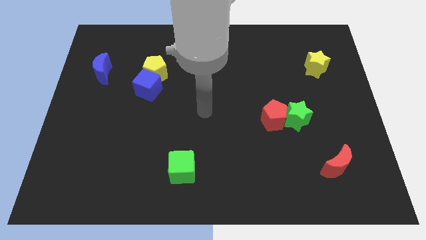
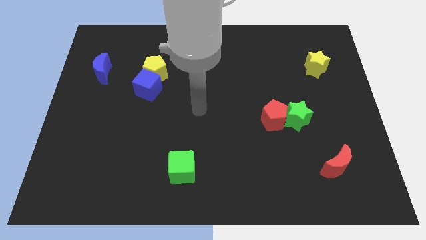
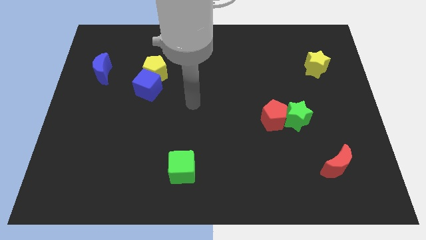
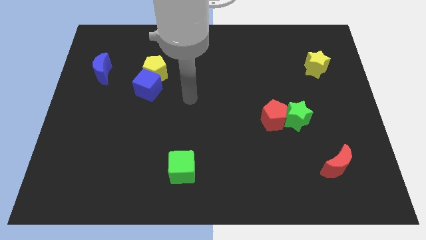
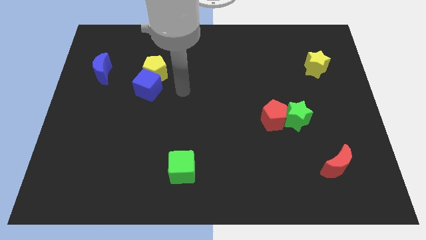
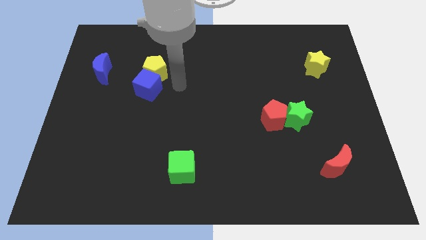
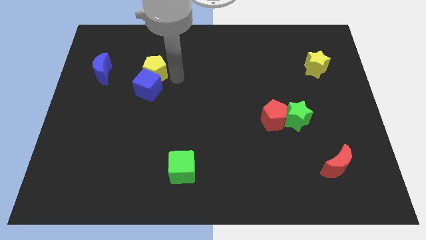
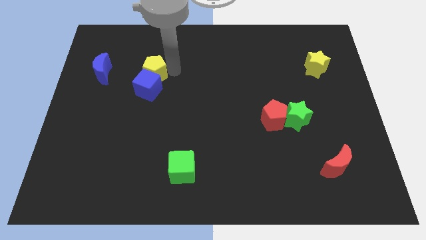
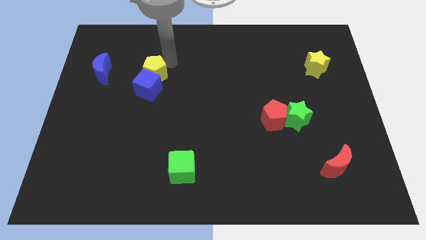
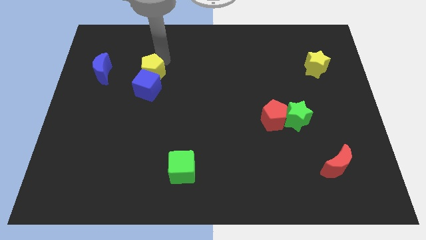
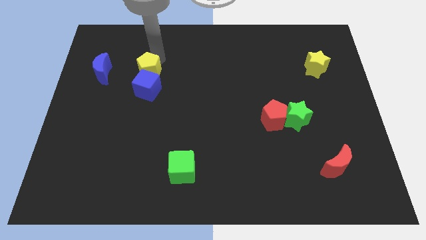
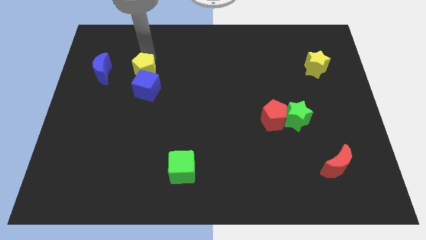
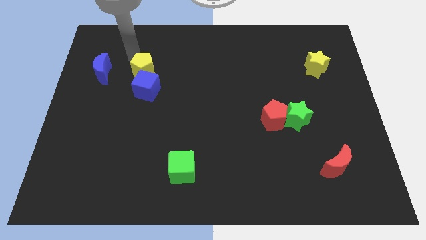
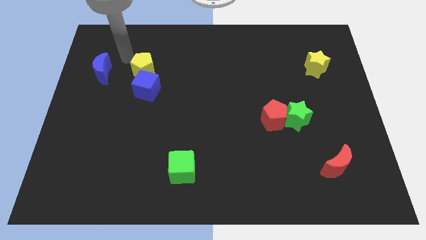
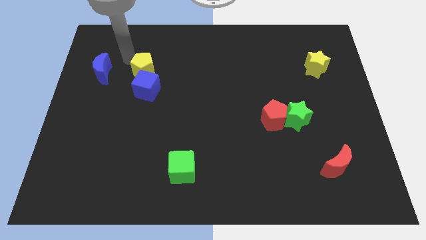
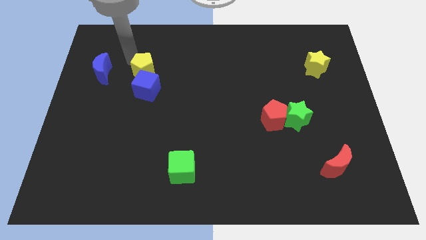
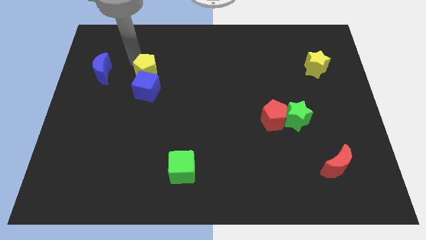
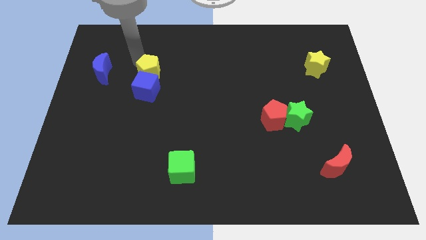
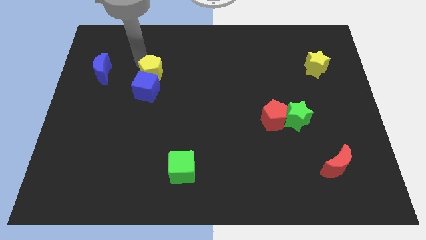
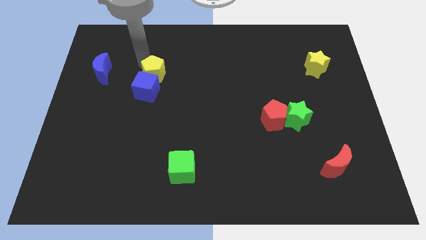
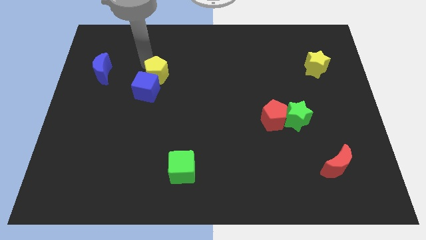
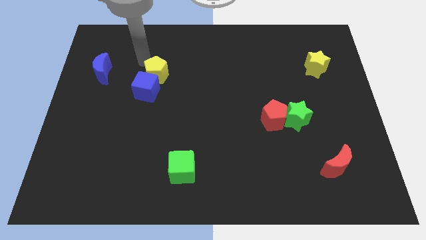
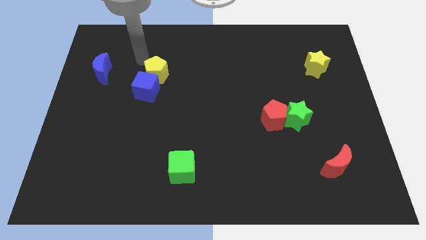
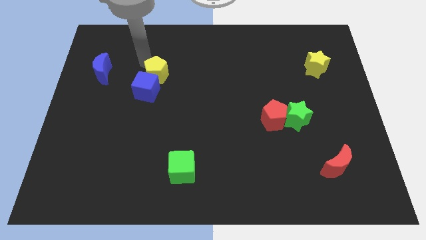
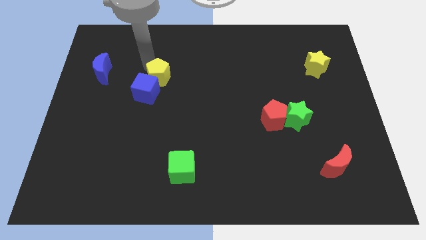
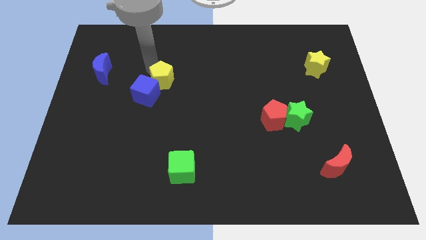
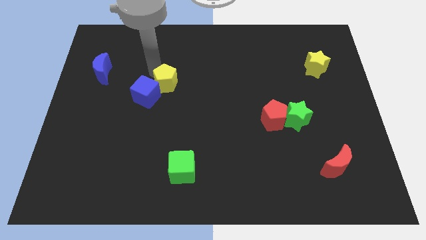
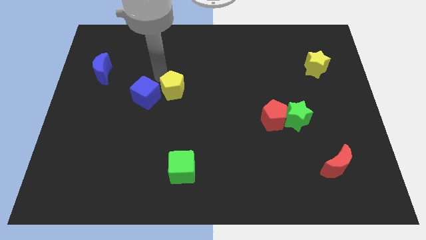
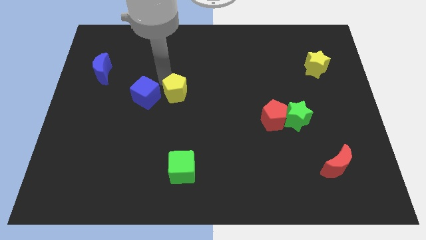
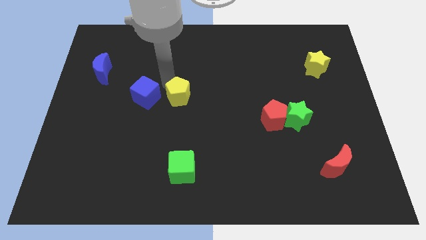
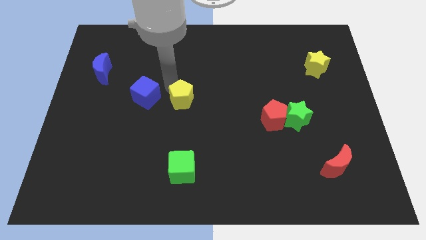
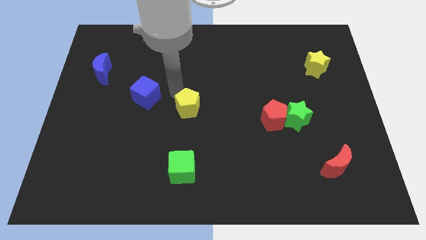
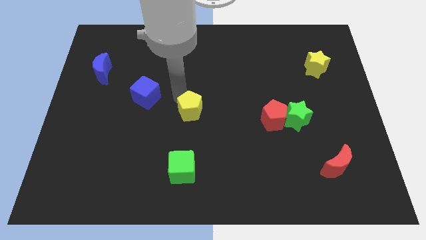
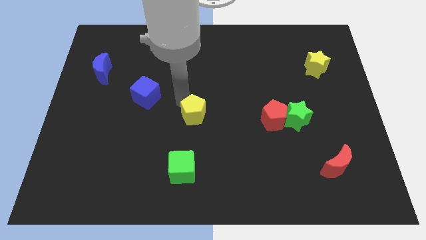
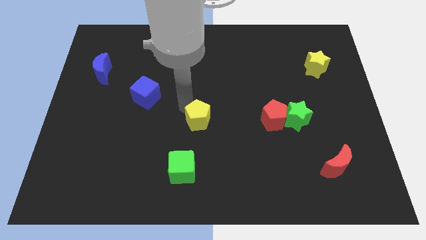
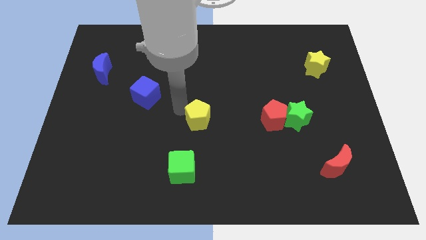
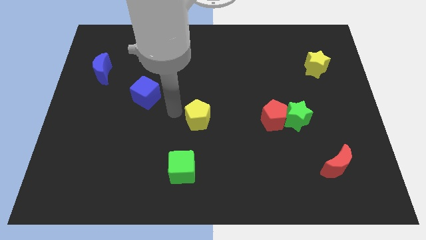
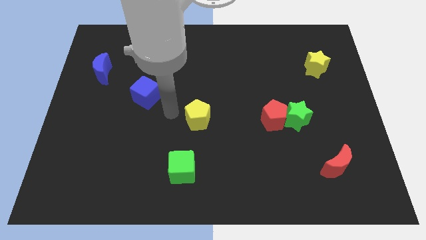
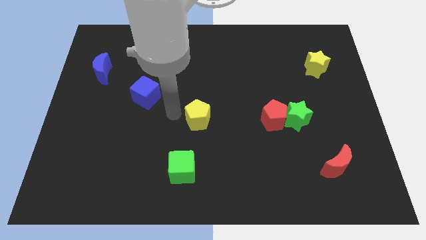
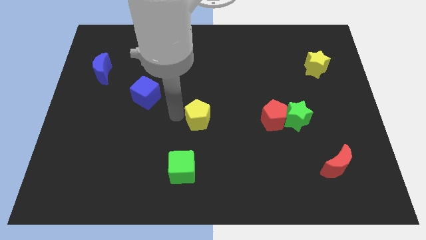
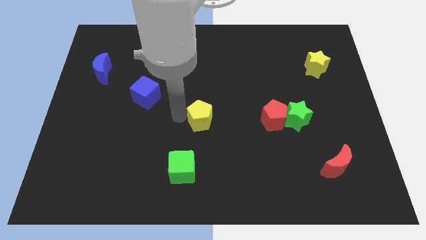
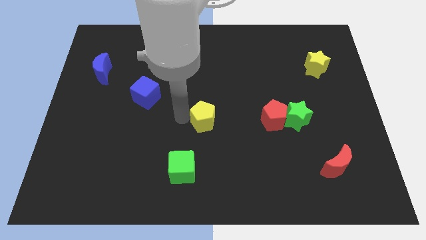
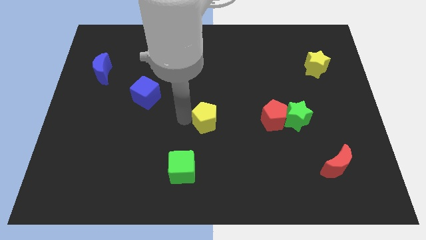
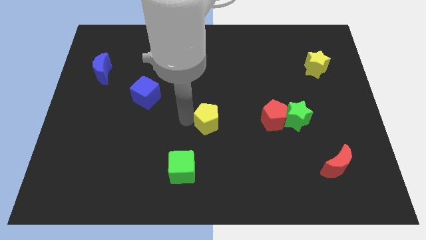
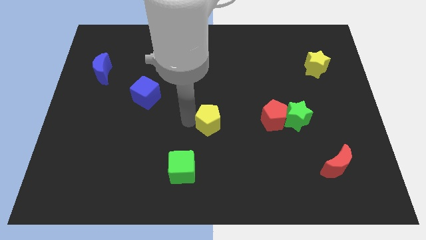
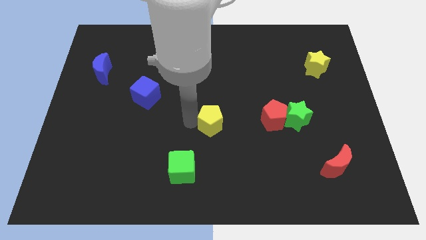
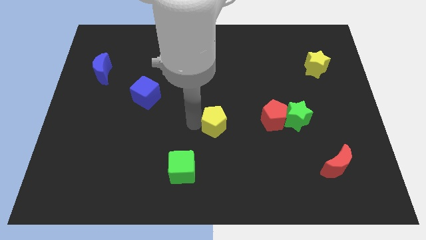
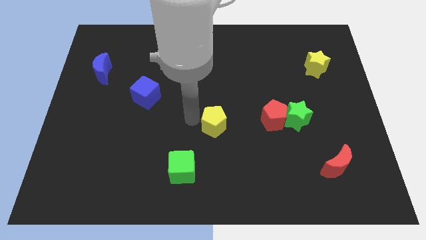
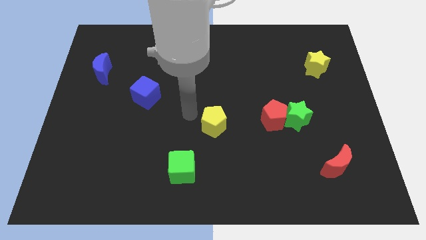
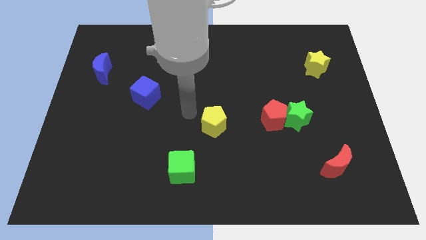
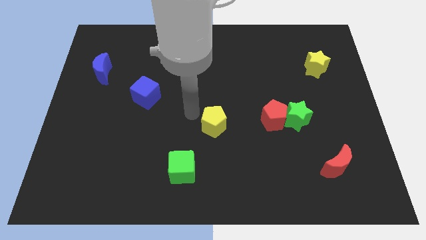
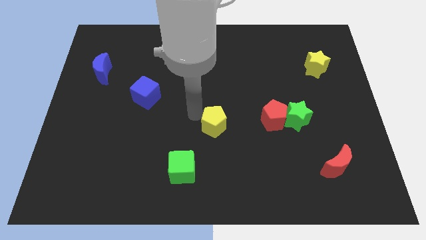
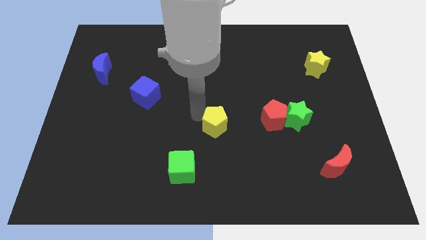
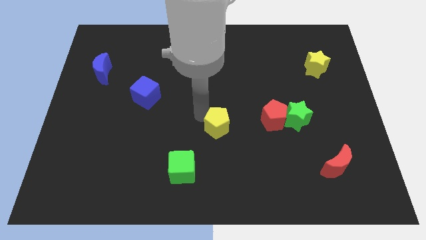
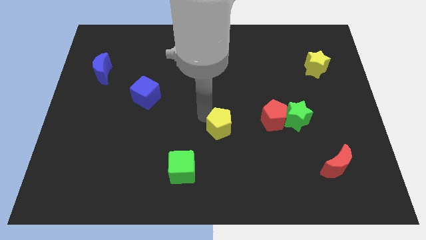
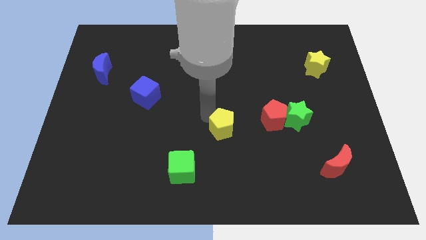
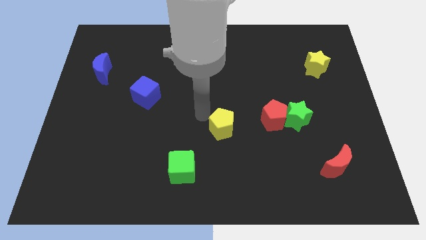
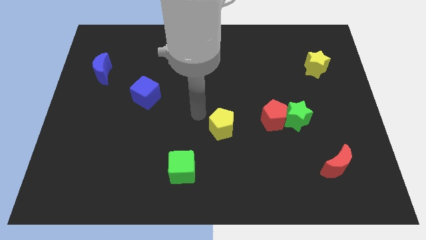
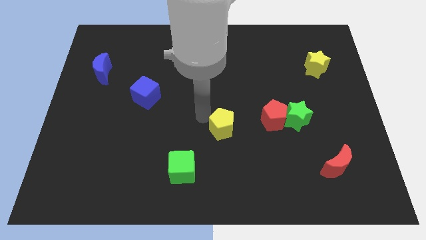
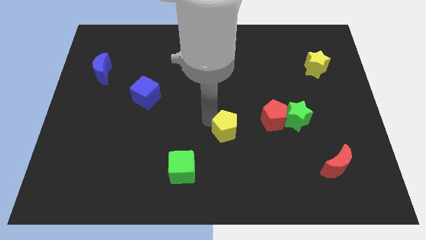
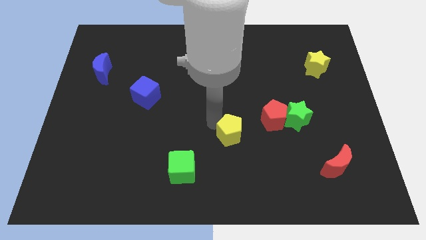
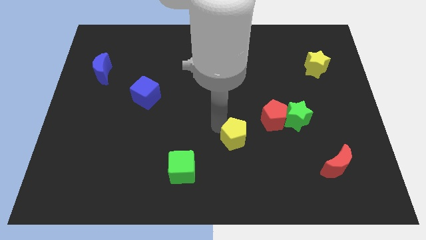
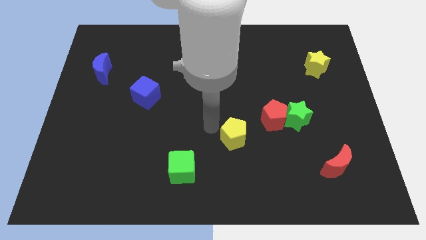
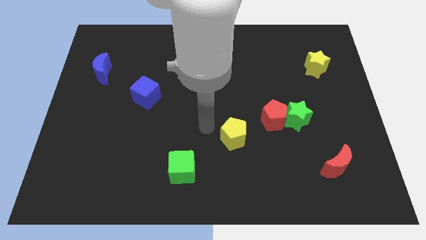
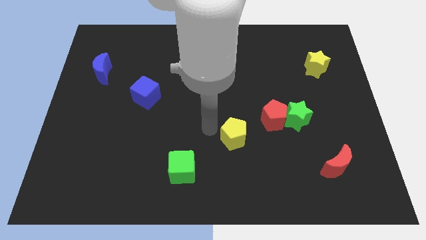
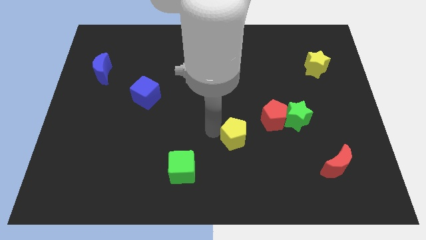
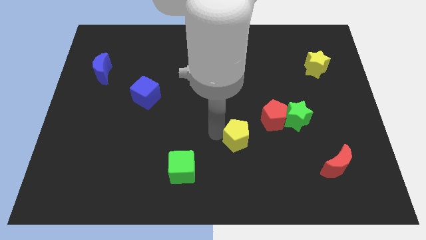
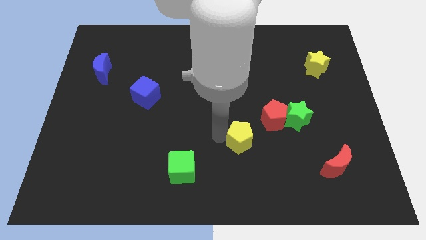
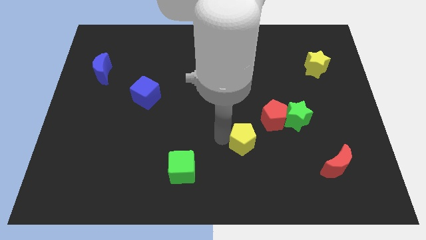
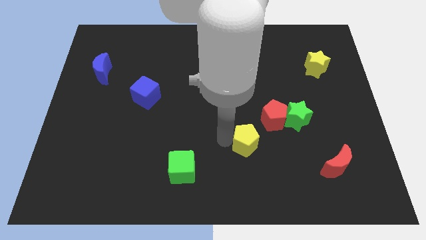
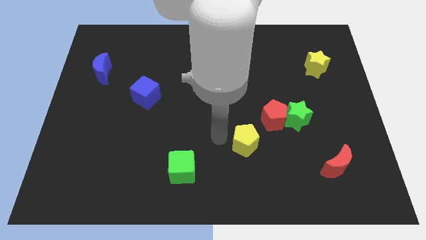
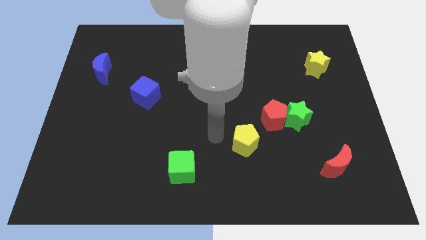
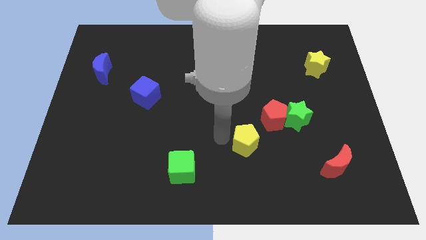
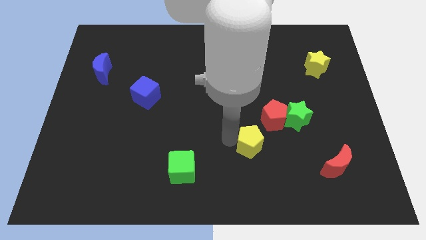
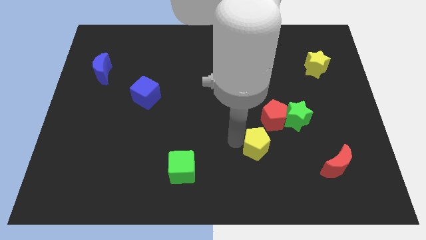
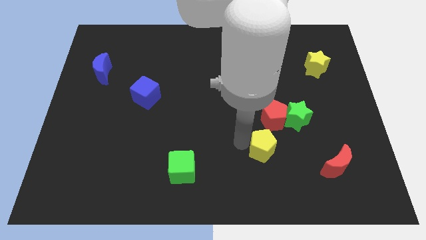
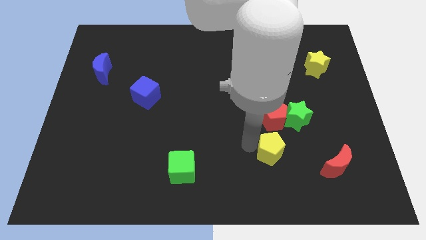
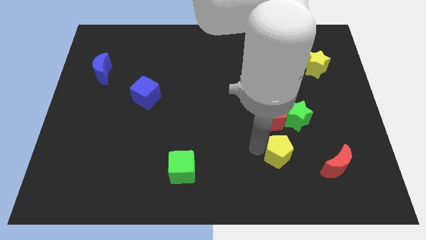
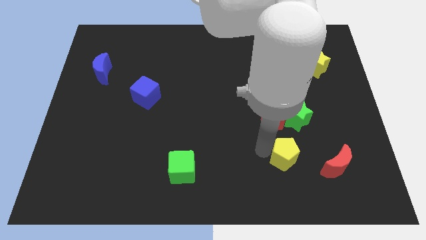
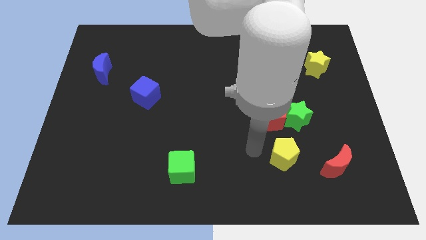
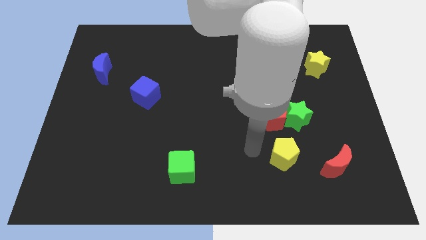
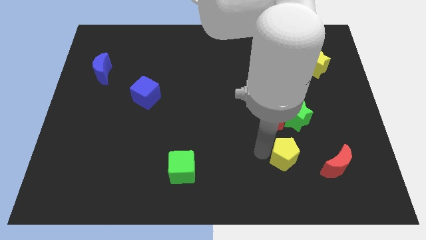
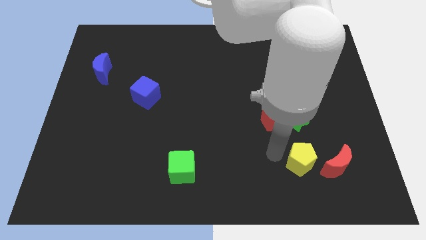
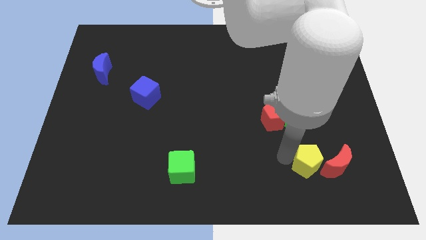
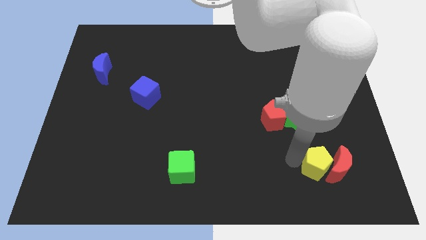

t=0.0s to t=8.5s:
push the yellow pentagon towards the red moon
